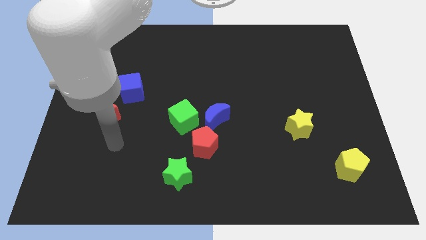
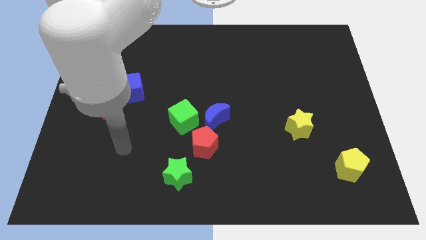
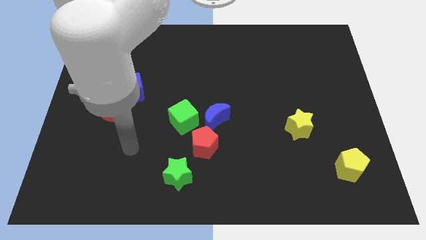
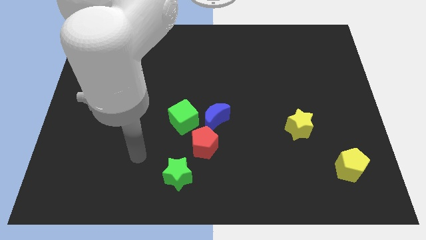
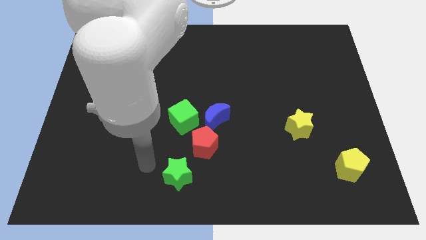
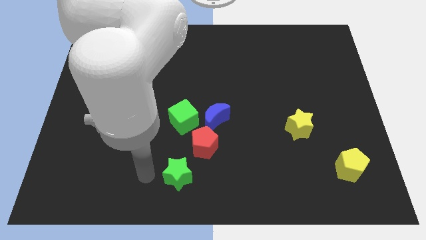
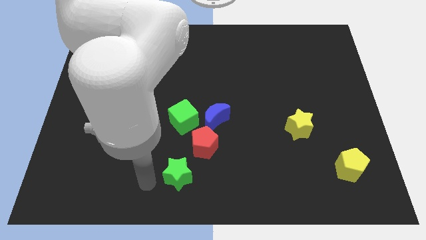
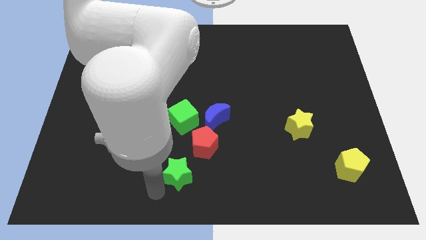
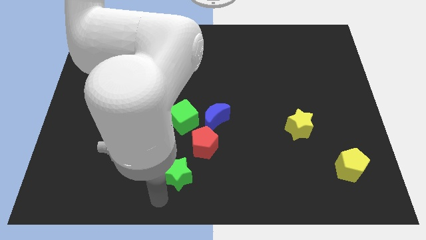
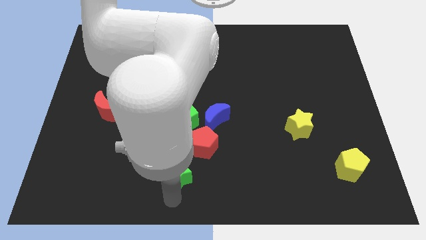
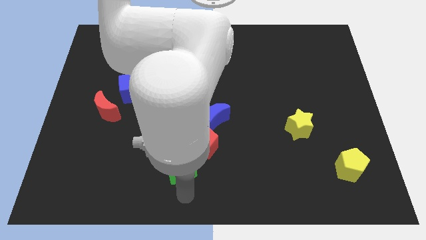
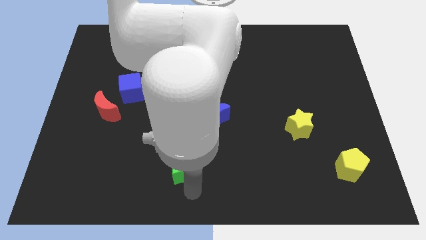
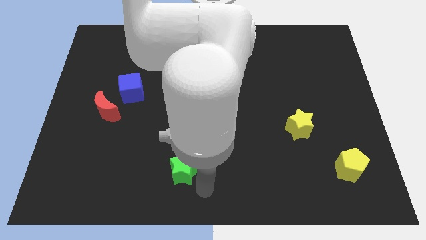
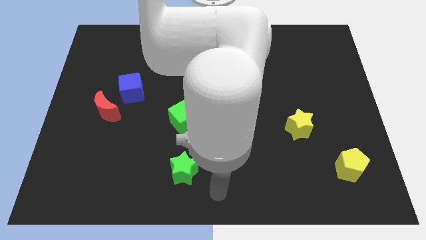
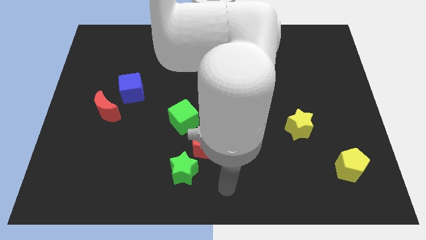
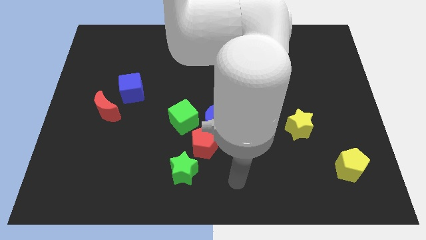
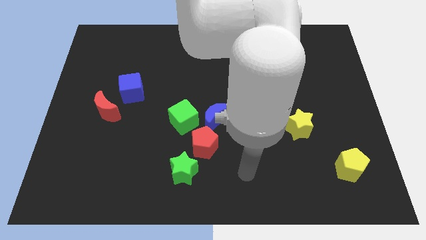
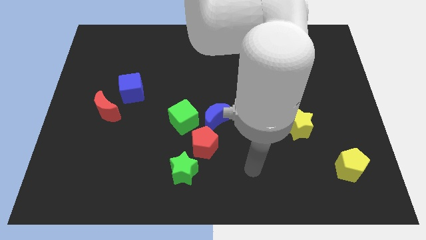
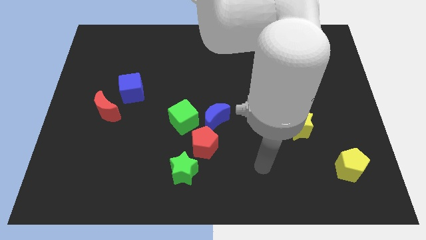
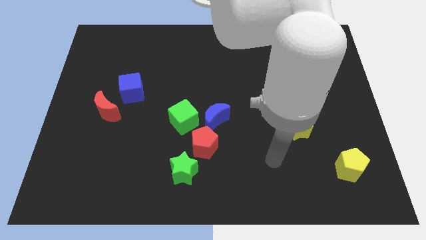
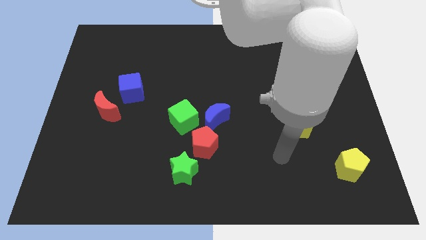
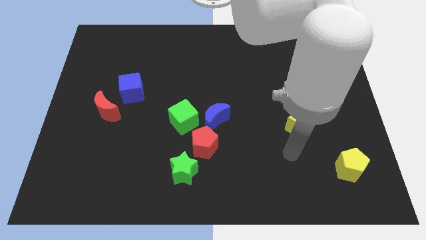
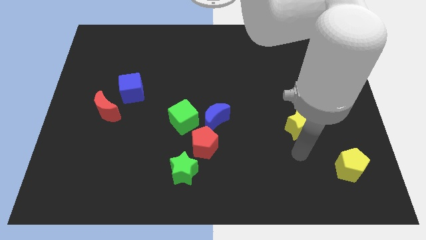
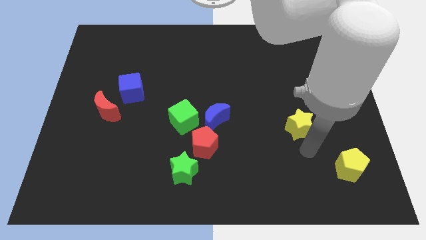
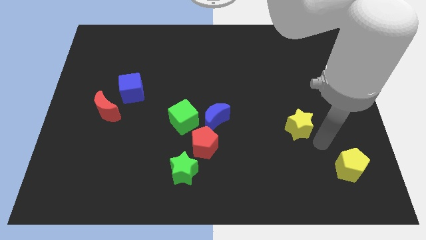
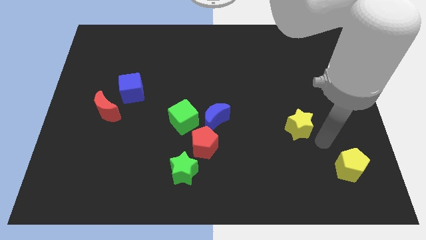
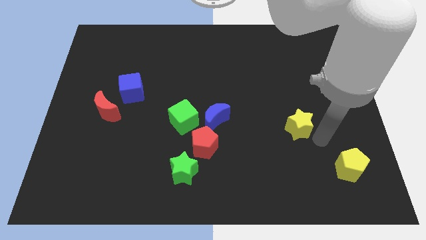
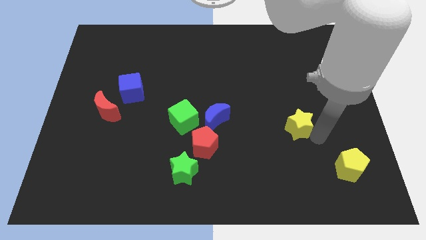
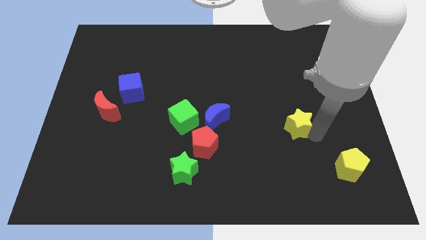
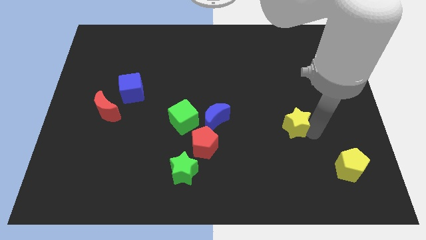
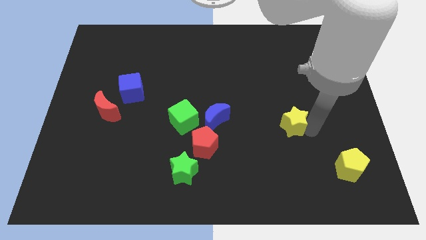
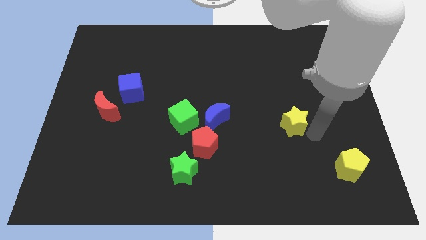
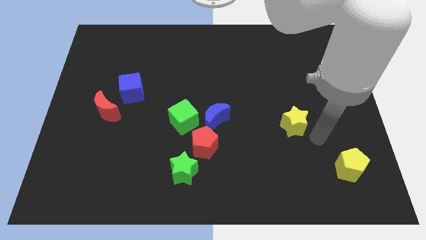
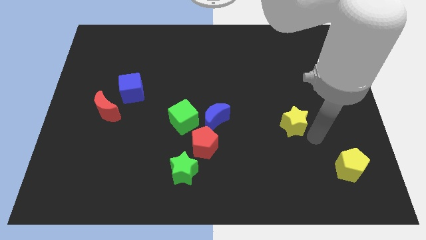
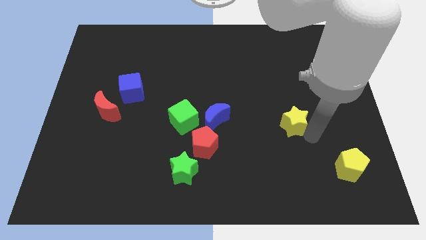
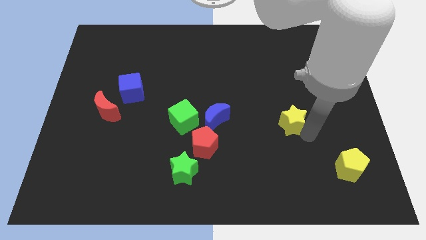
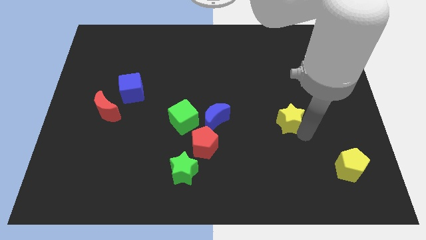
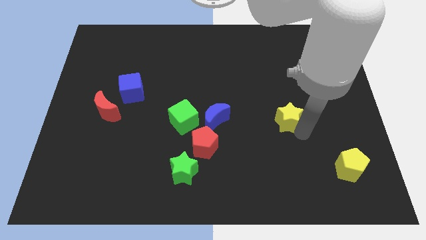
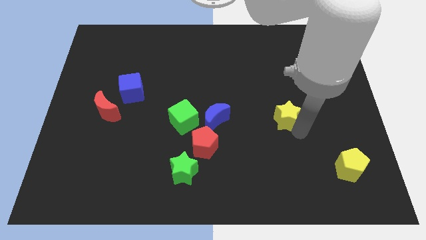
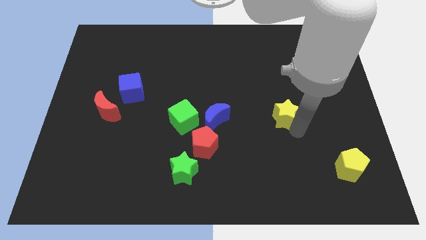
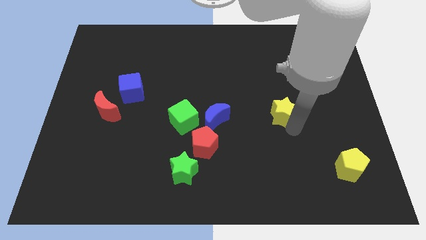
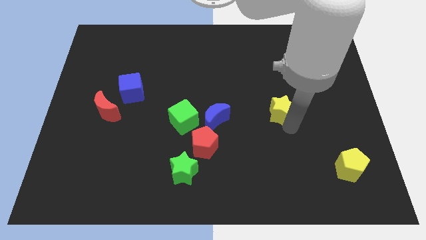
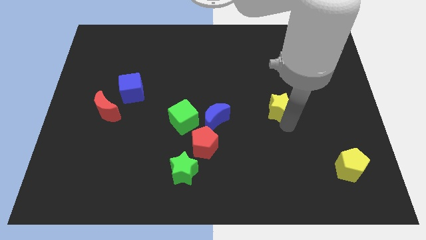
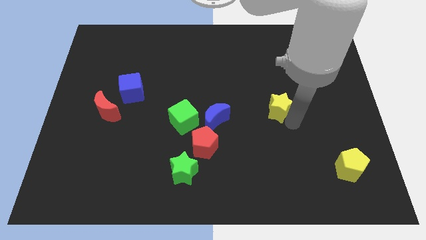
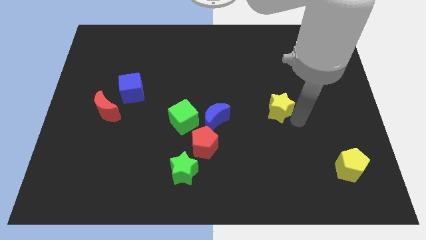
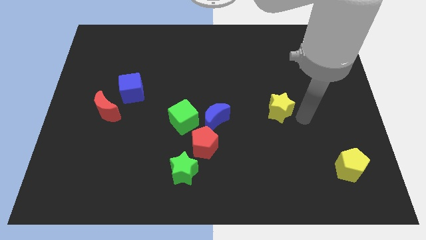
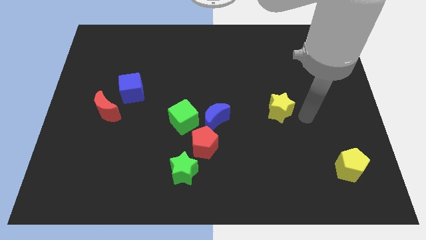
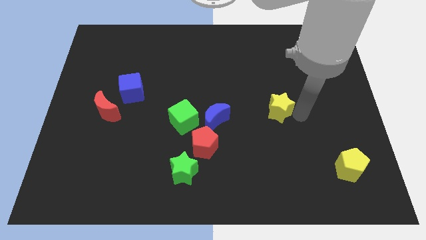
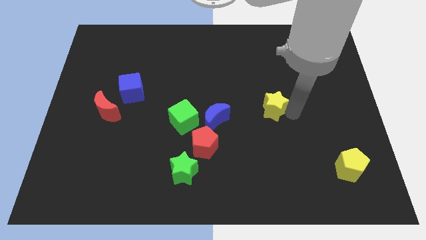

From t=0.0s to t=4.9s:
push the yellow star a little bit diagonally up and to the left

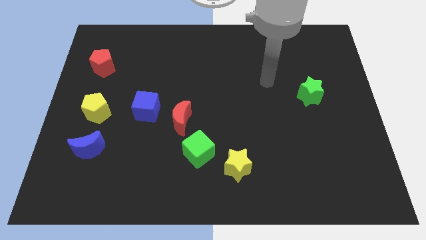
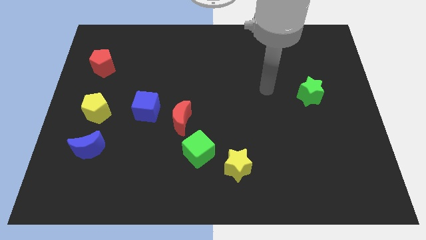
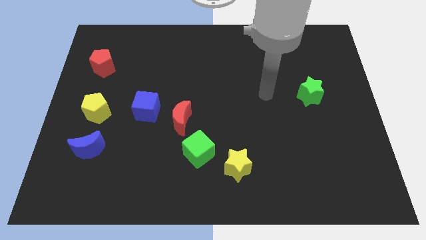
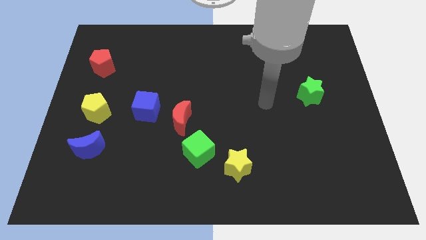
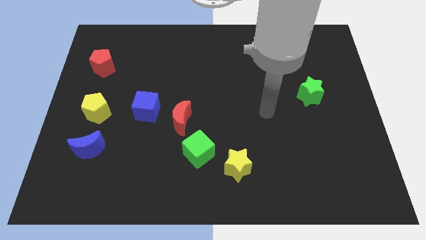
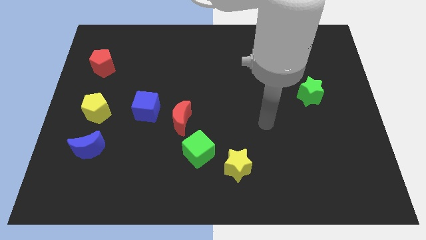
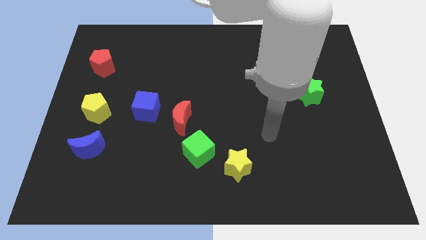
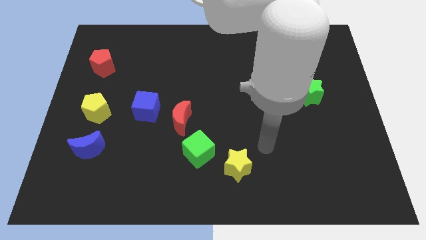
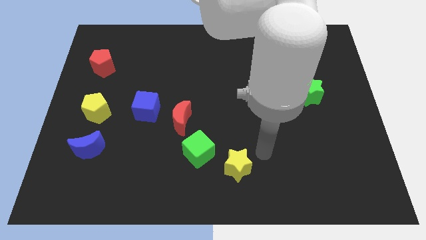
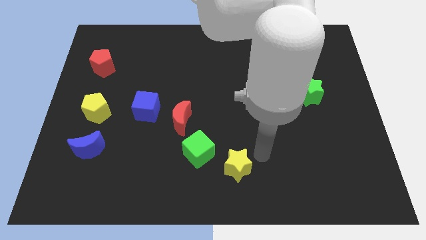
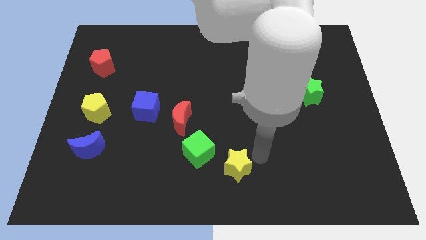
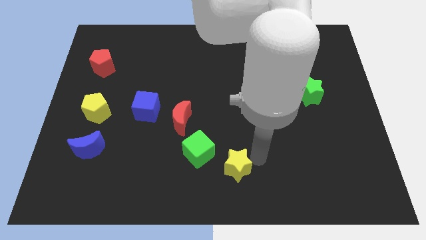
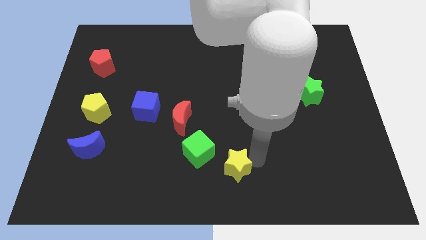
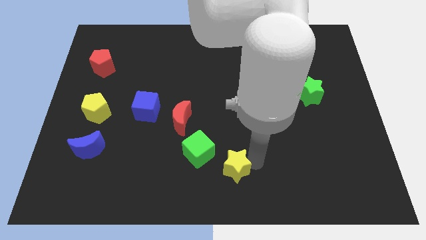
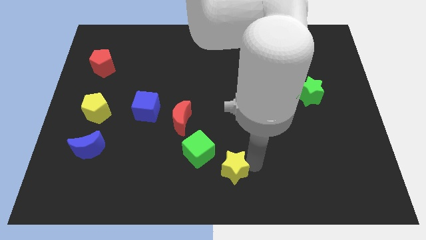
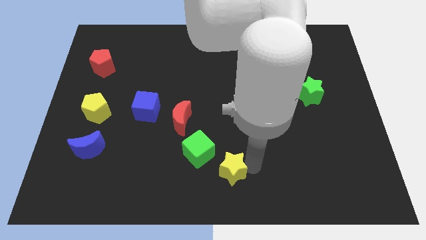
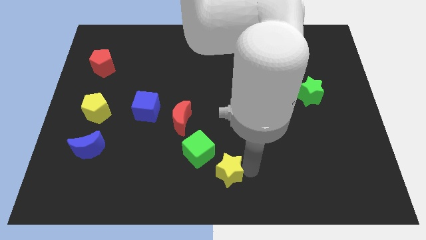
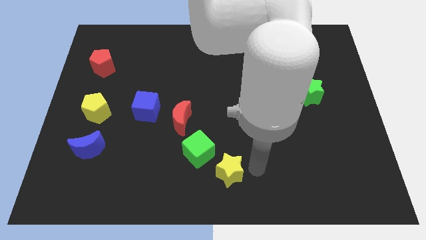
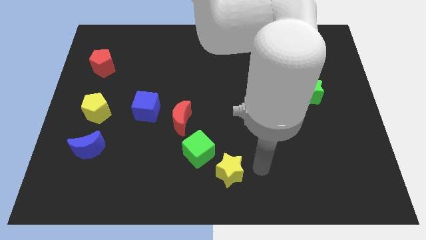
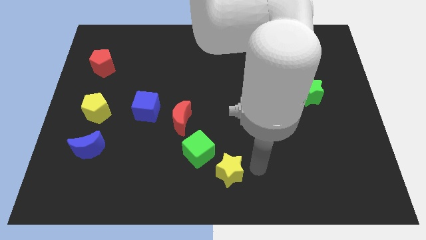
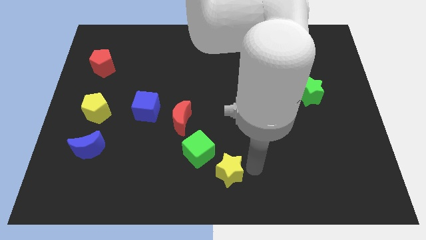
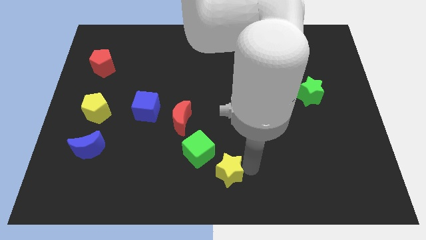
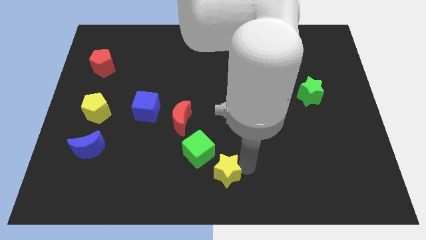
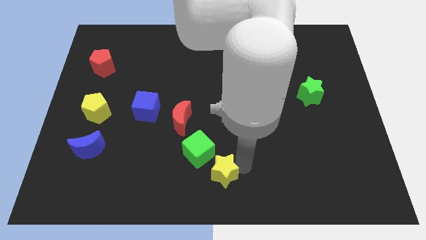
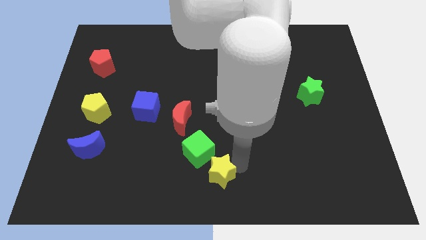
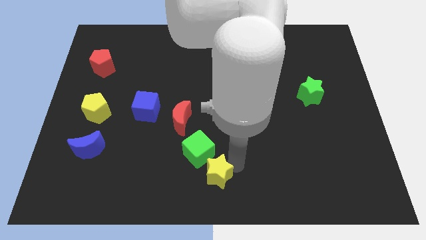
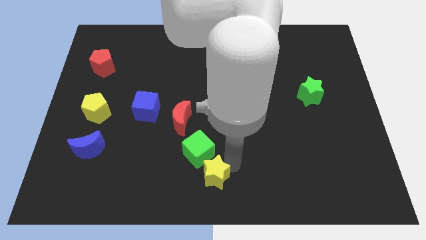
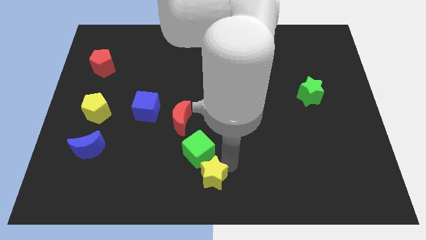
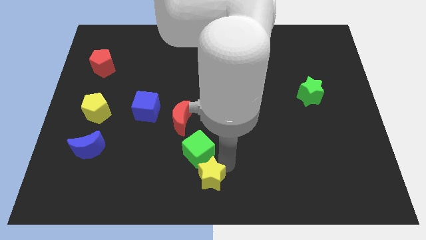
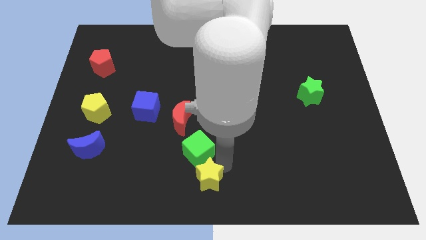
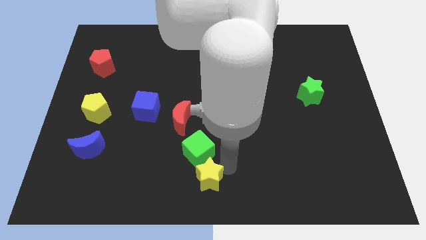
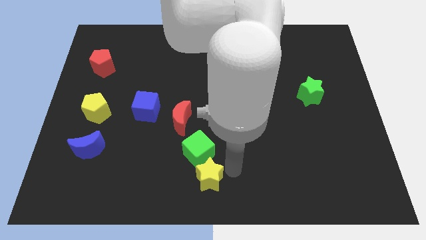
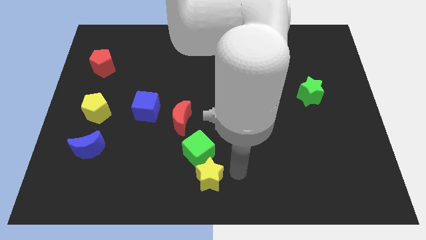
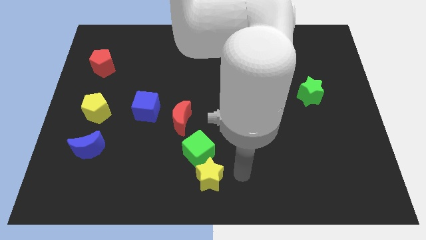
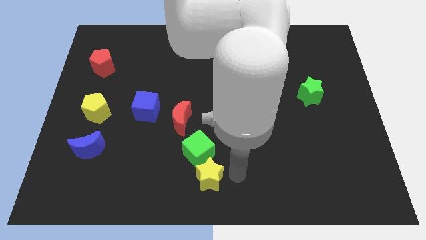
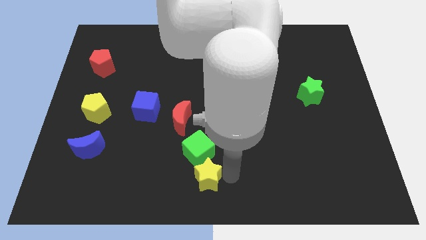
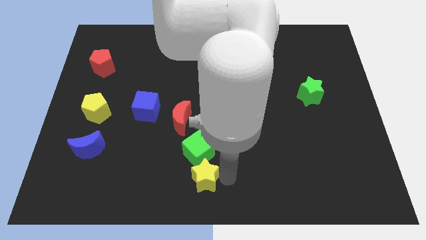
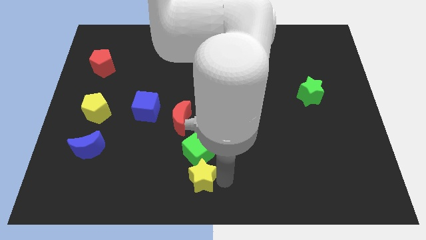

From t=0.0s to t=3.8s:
slightly slide the yellow star to the left
